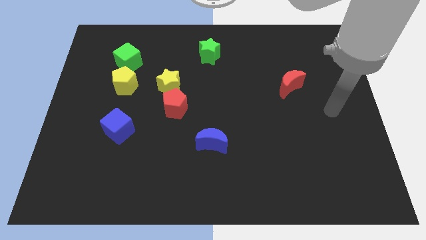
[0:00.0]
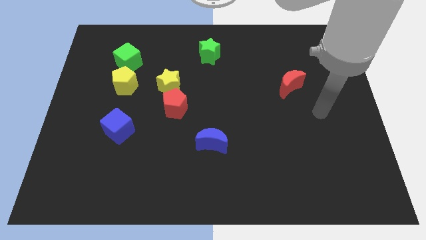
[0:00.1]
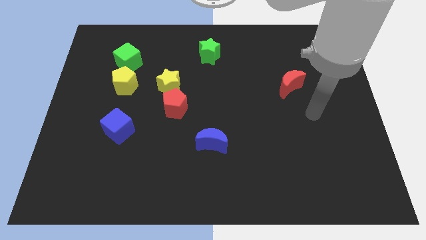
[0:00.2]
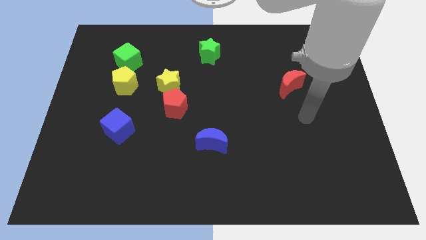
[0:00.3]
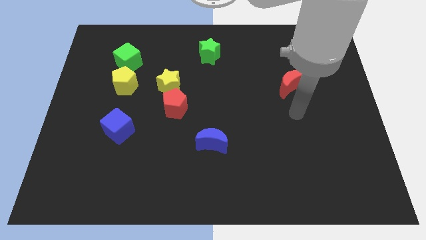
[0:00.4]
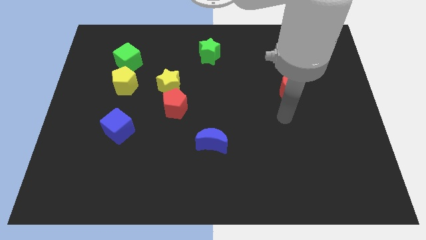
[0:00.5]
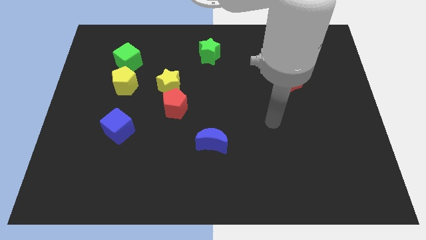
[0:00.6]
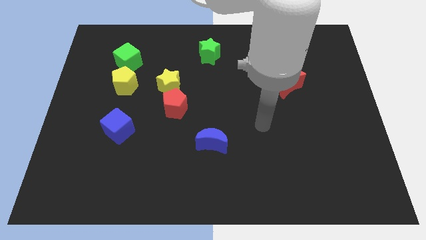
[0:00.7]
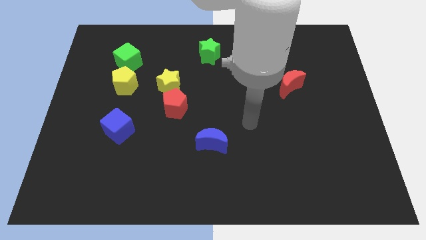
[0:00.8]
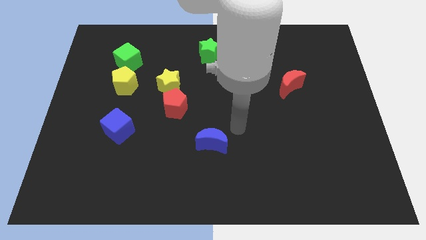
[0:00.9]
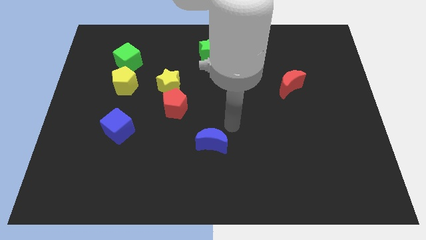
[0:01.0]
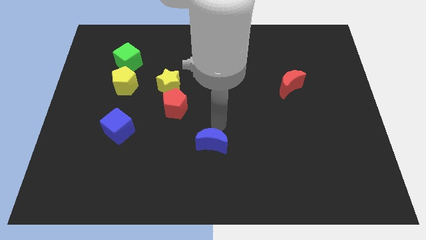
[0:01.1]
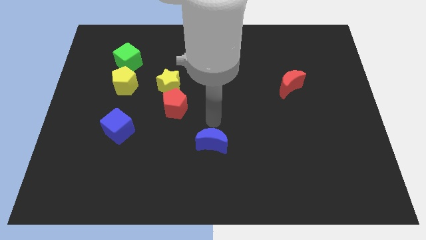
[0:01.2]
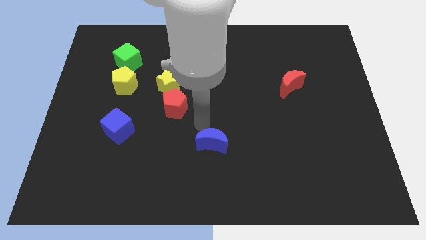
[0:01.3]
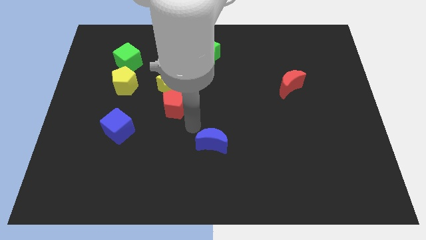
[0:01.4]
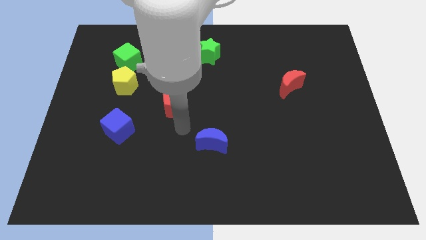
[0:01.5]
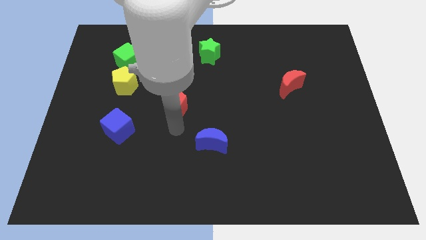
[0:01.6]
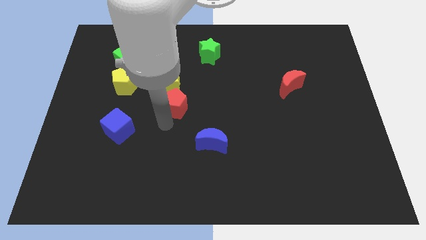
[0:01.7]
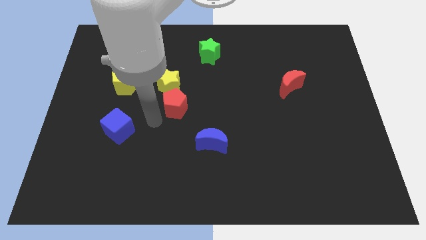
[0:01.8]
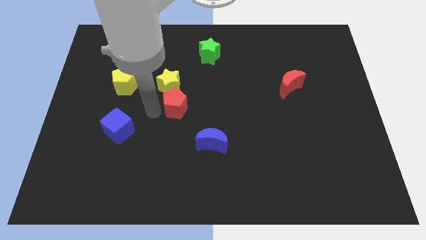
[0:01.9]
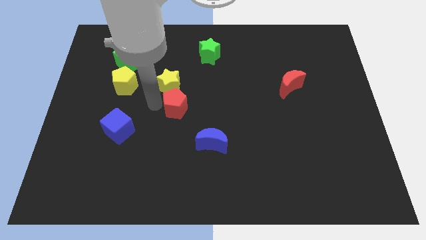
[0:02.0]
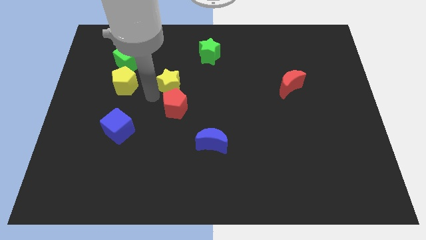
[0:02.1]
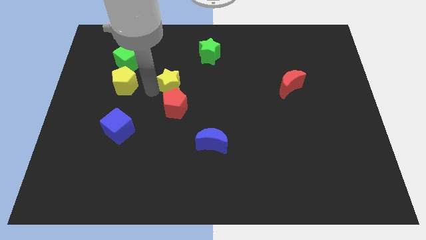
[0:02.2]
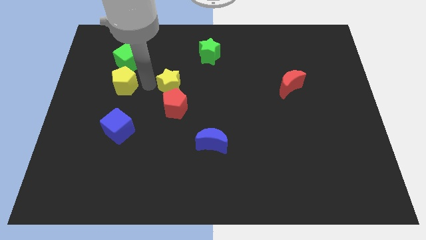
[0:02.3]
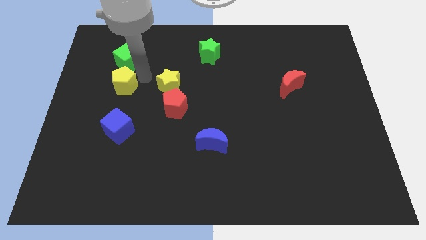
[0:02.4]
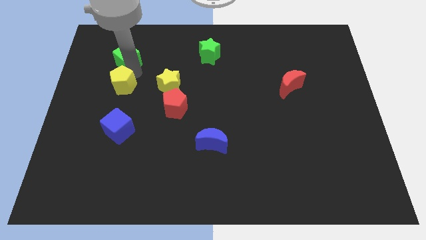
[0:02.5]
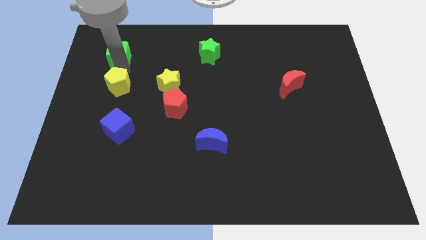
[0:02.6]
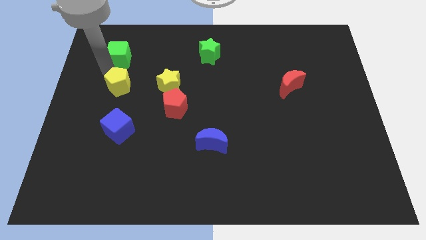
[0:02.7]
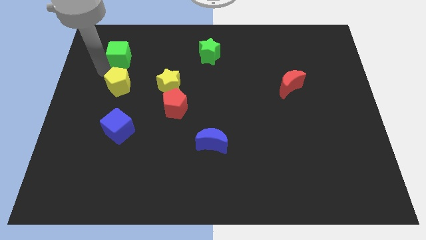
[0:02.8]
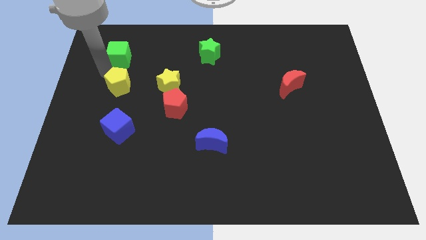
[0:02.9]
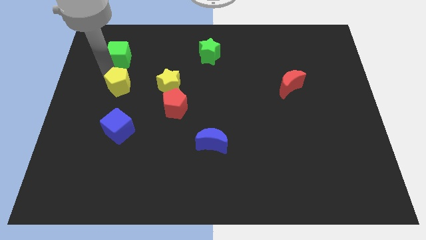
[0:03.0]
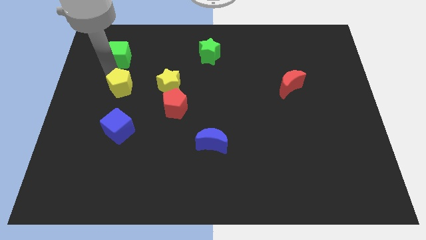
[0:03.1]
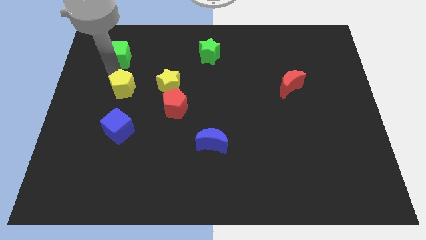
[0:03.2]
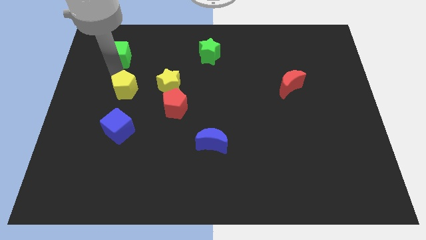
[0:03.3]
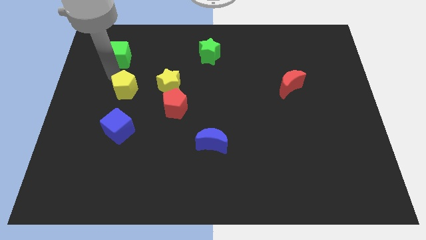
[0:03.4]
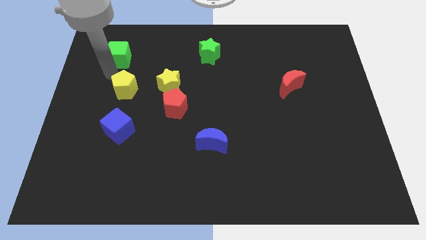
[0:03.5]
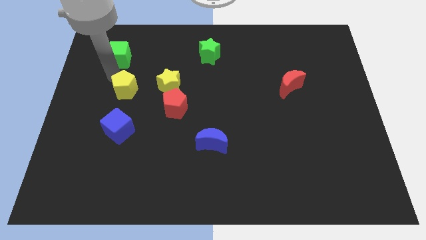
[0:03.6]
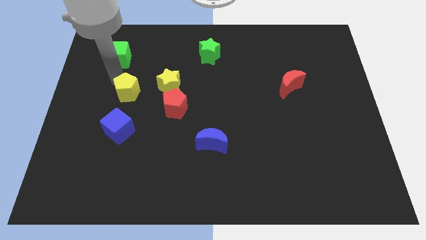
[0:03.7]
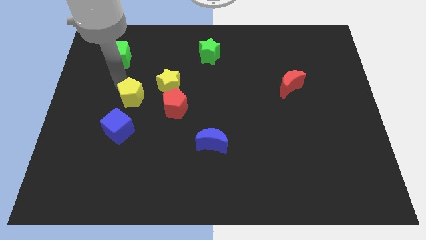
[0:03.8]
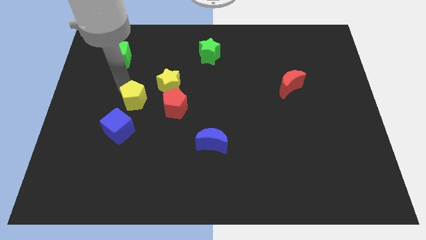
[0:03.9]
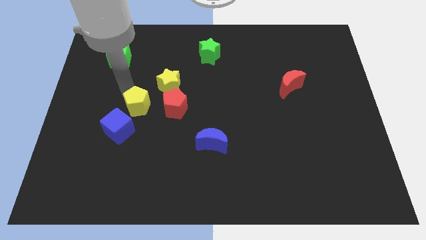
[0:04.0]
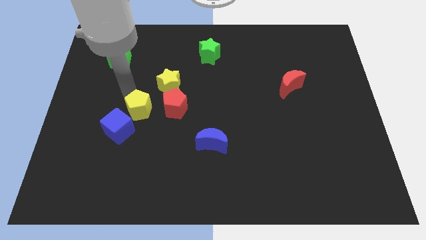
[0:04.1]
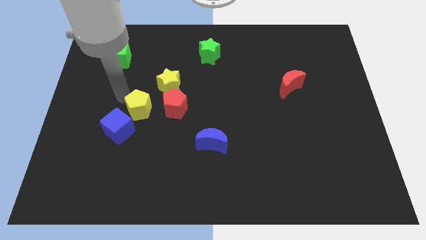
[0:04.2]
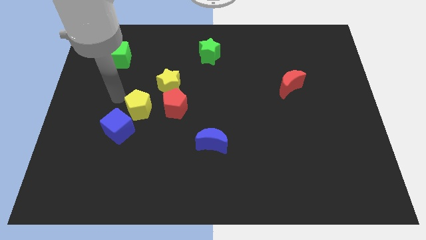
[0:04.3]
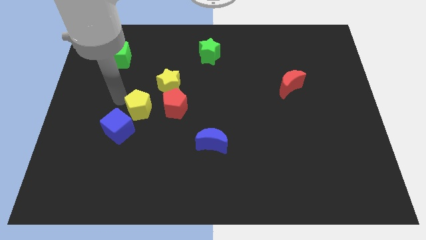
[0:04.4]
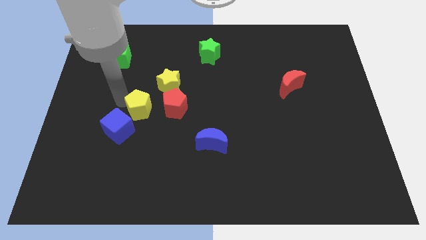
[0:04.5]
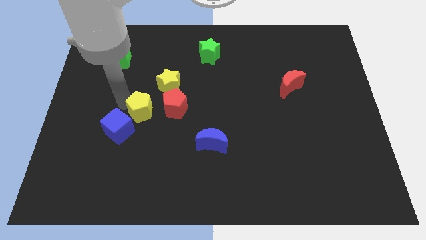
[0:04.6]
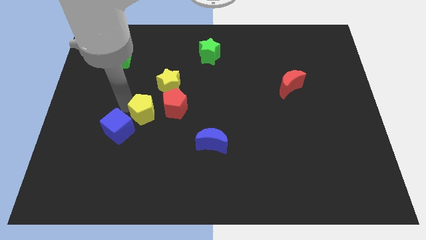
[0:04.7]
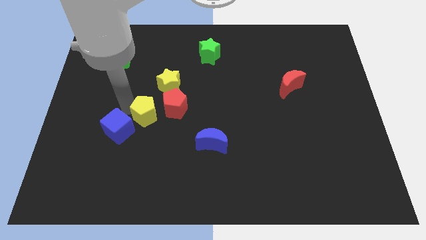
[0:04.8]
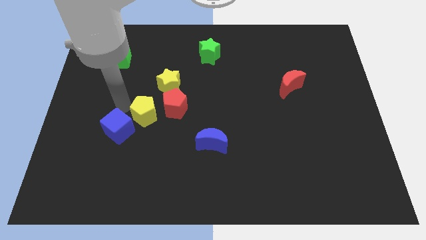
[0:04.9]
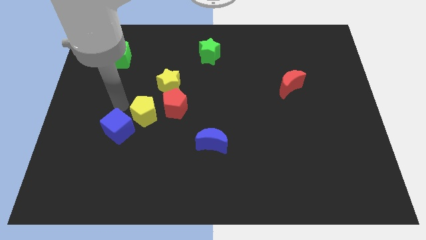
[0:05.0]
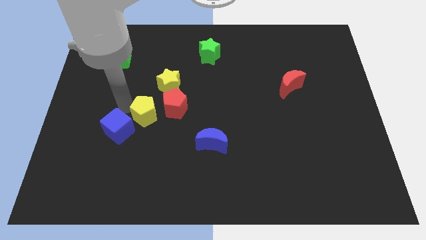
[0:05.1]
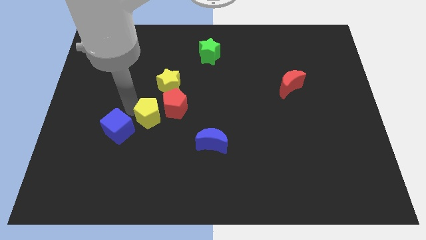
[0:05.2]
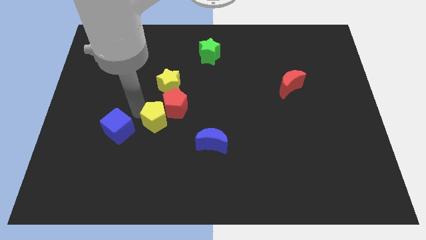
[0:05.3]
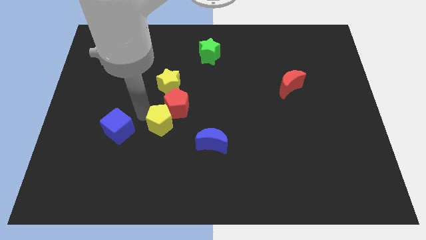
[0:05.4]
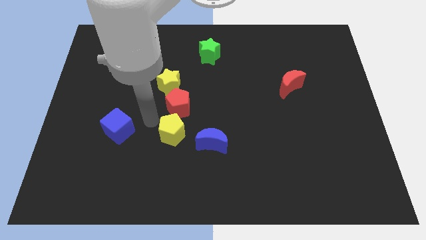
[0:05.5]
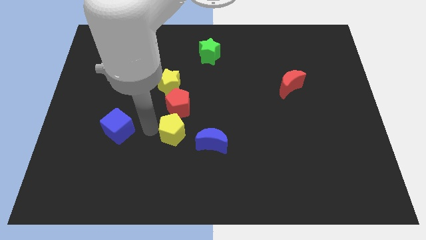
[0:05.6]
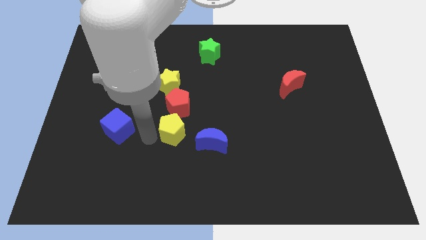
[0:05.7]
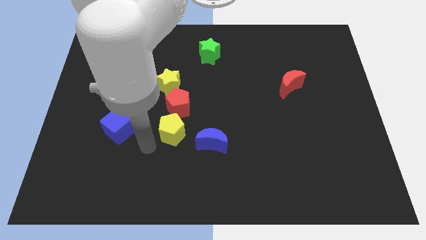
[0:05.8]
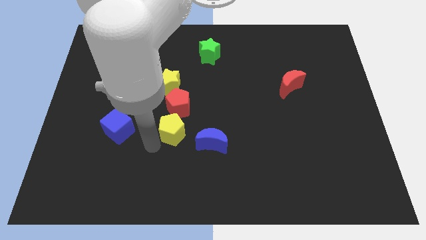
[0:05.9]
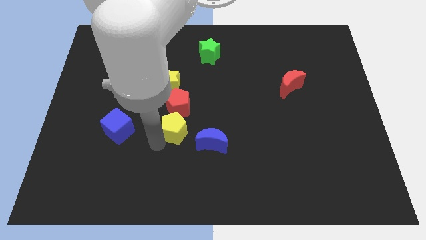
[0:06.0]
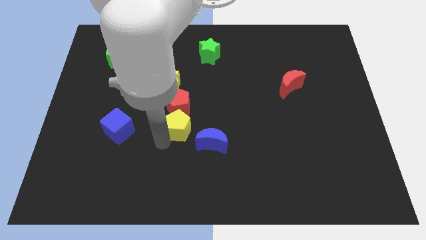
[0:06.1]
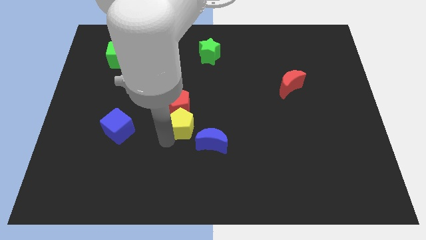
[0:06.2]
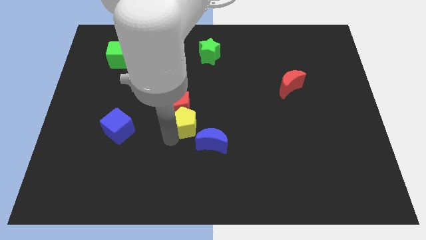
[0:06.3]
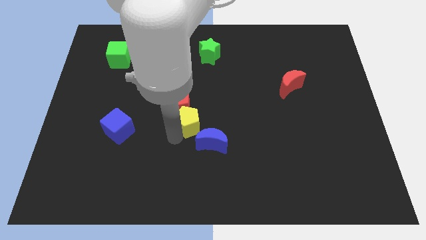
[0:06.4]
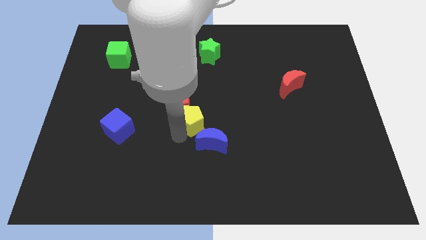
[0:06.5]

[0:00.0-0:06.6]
put the yellow pentagon to the top side of the blue moon

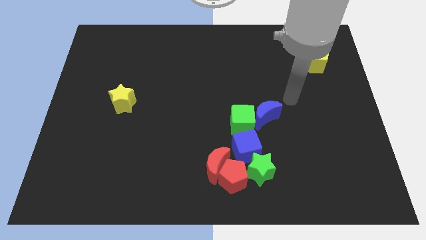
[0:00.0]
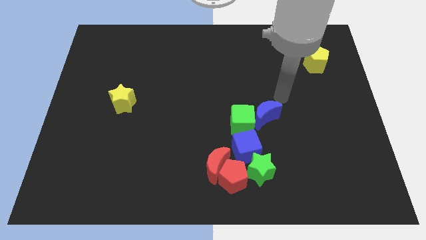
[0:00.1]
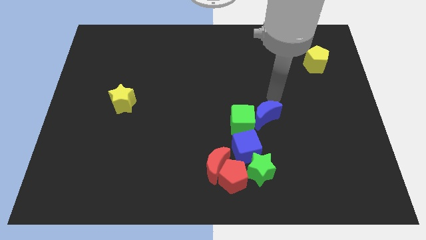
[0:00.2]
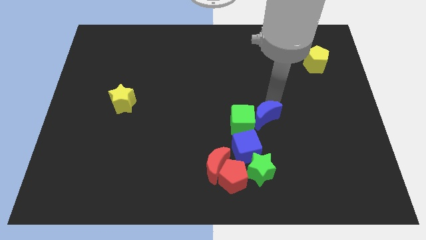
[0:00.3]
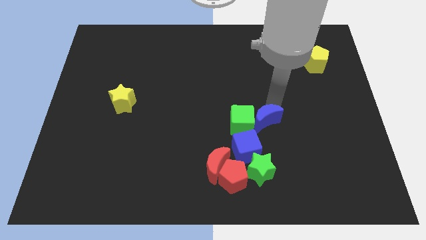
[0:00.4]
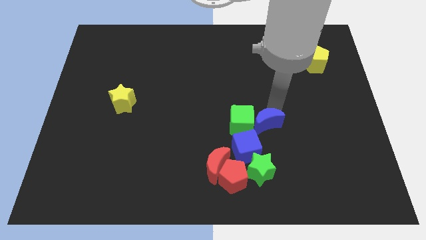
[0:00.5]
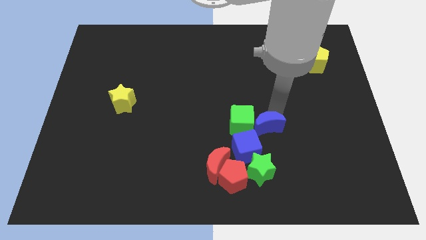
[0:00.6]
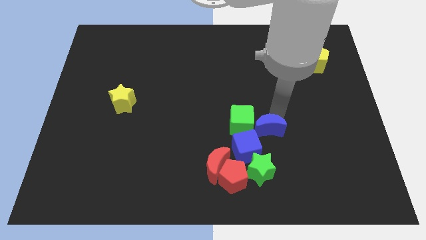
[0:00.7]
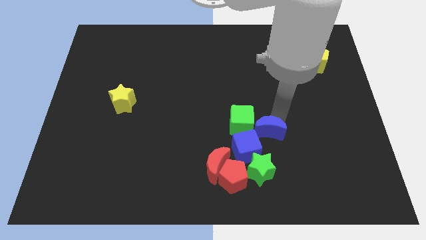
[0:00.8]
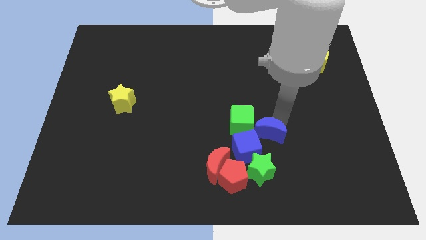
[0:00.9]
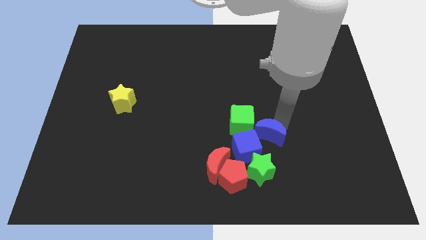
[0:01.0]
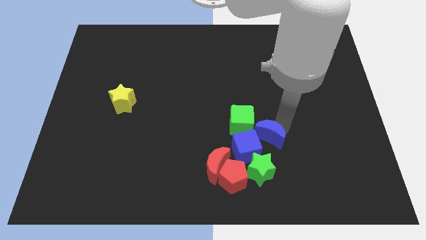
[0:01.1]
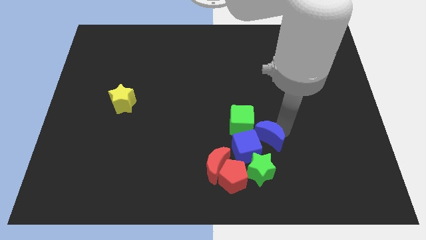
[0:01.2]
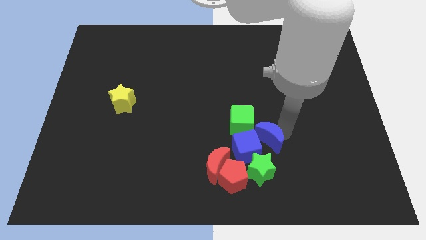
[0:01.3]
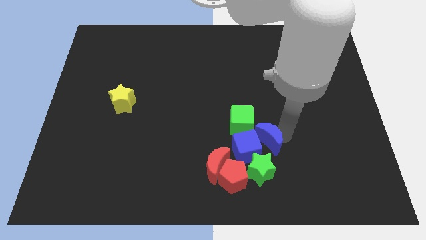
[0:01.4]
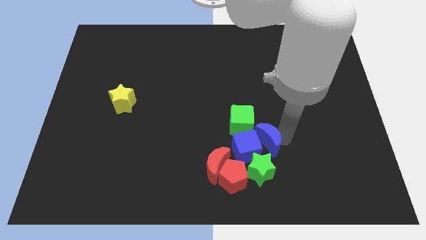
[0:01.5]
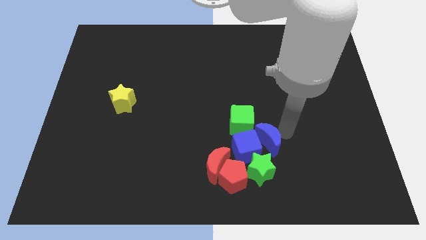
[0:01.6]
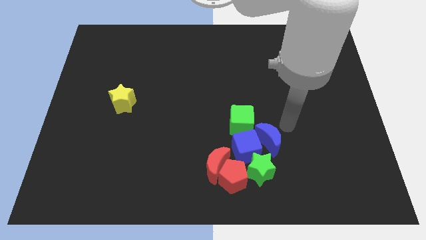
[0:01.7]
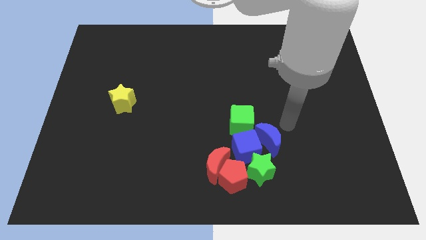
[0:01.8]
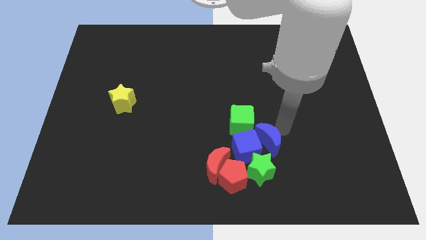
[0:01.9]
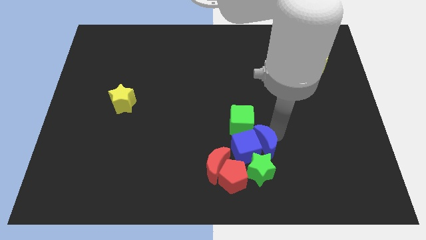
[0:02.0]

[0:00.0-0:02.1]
slide the blue moon below the green cube
